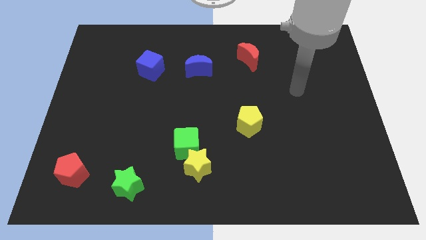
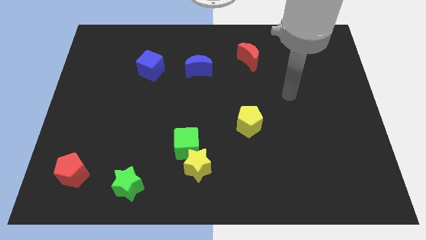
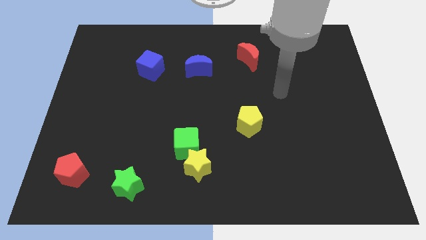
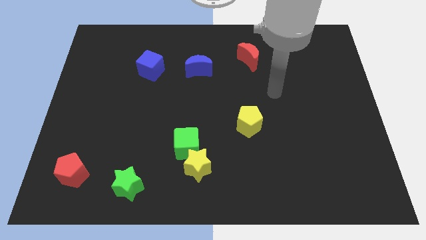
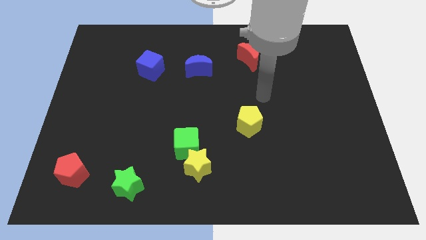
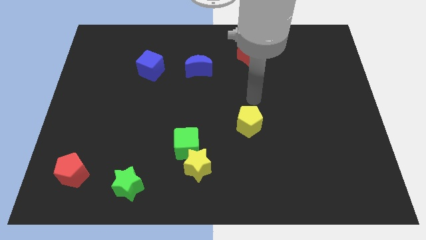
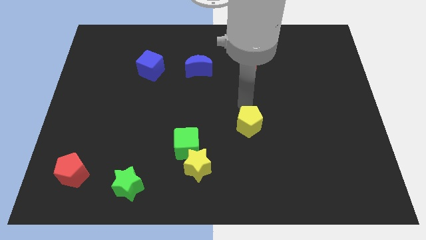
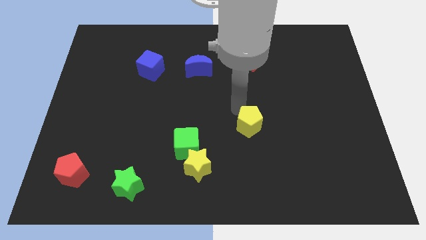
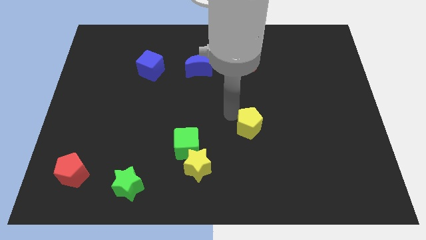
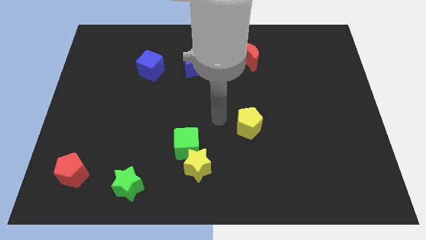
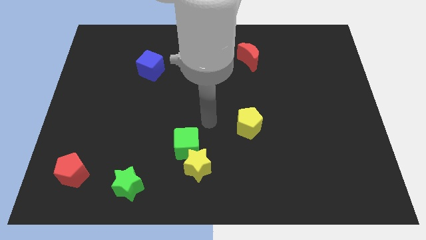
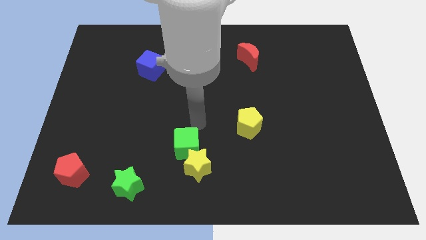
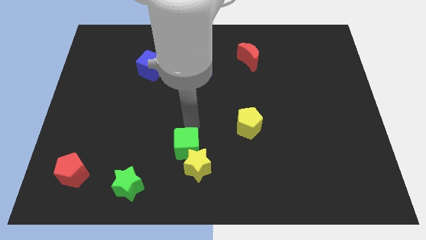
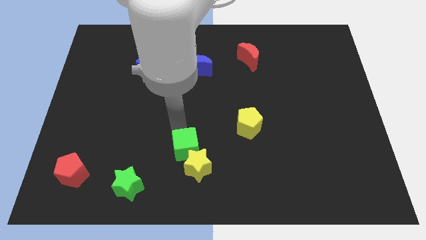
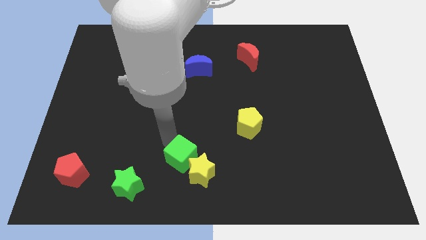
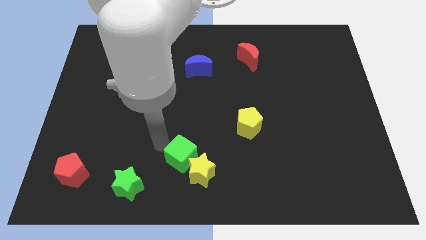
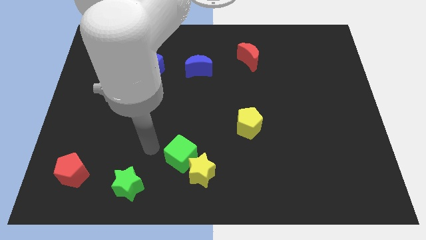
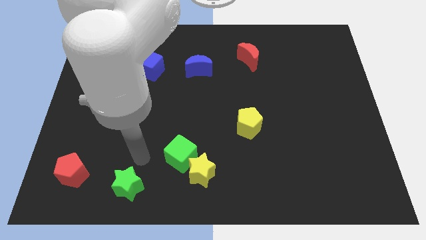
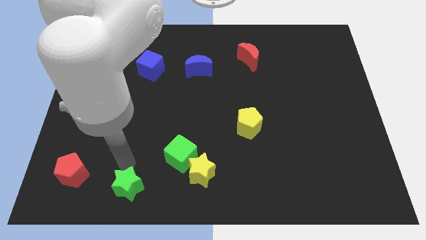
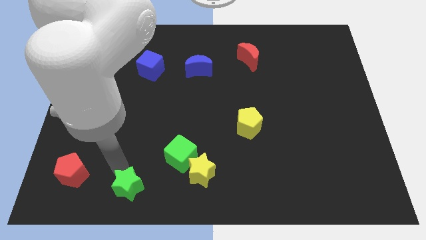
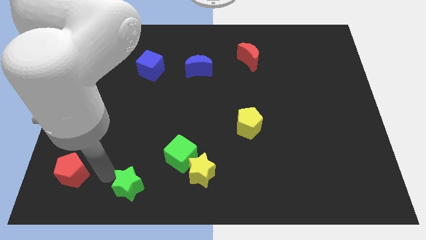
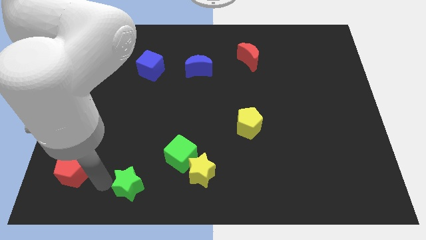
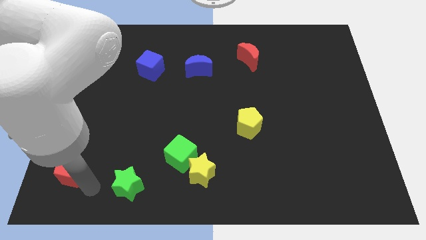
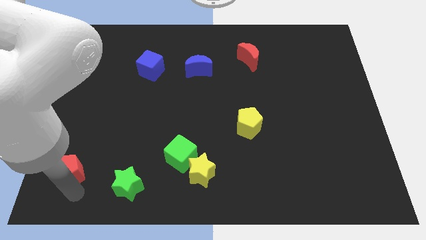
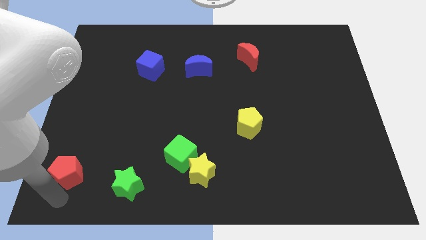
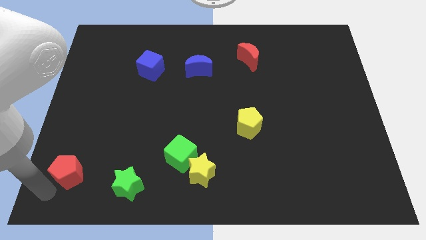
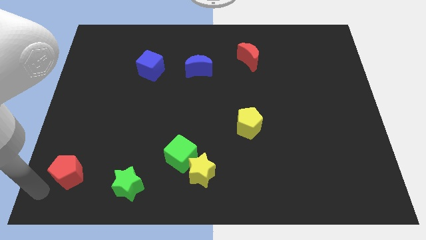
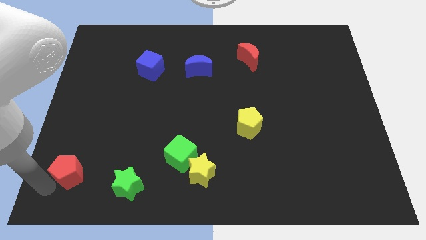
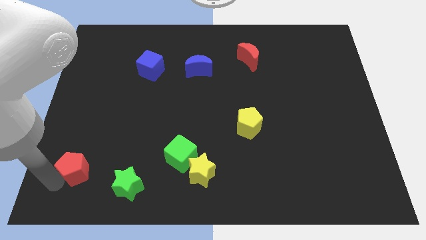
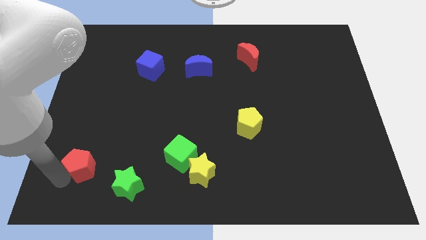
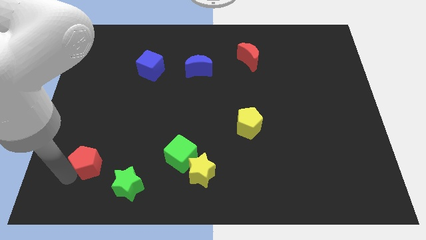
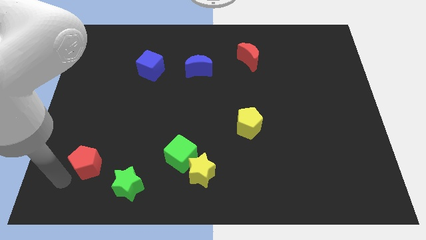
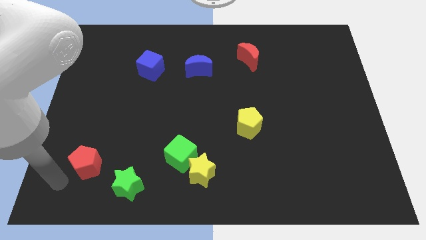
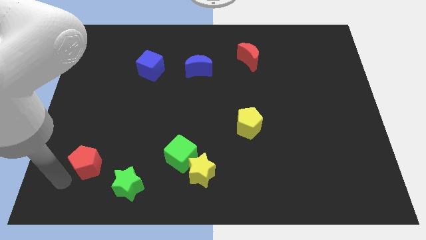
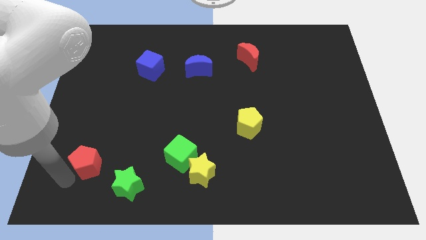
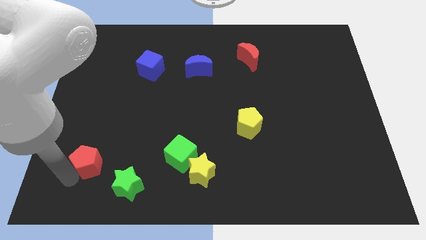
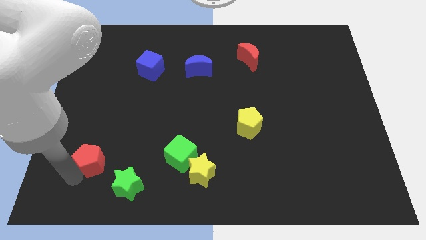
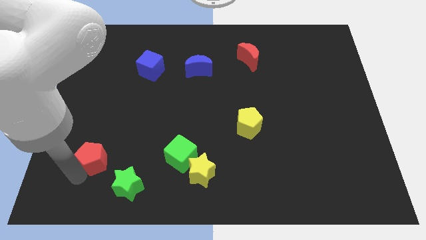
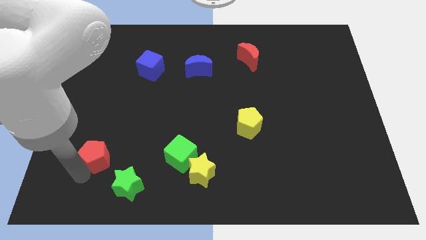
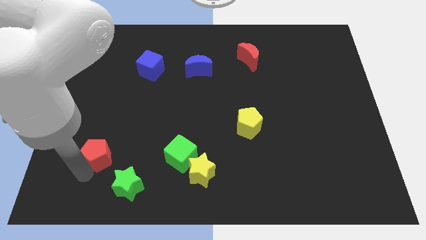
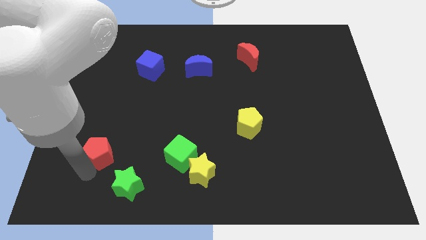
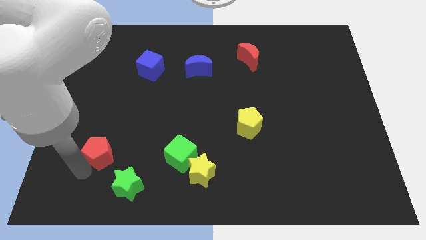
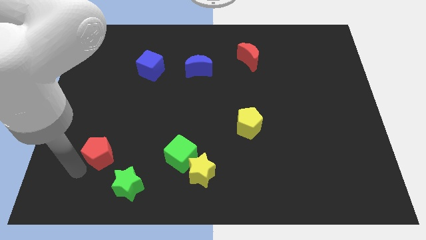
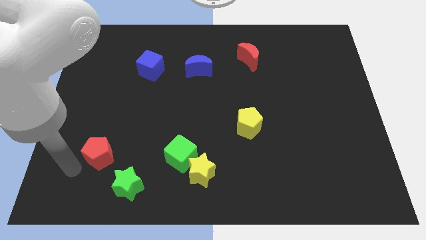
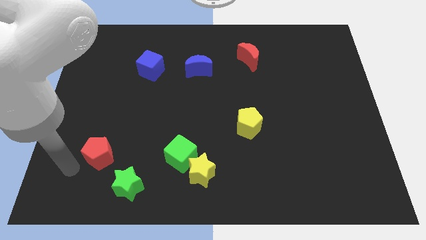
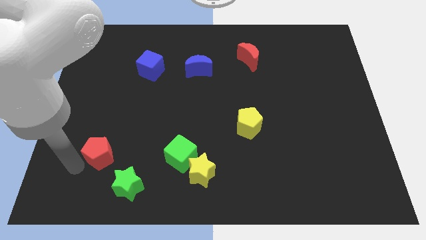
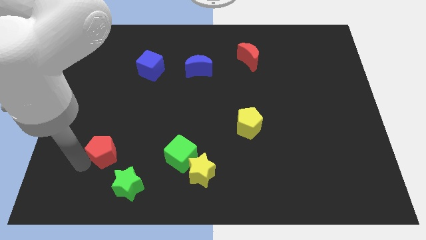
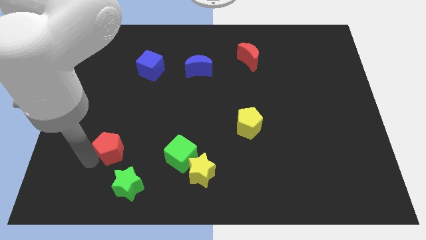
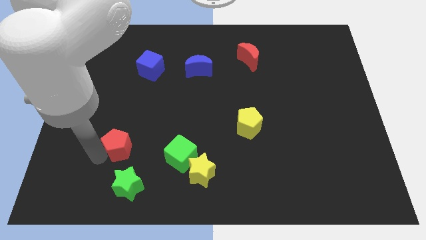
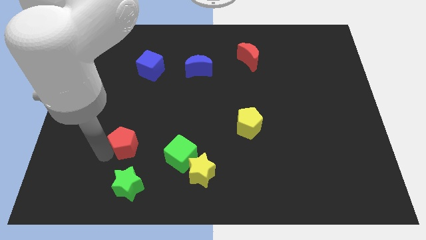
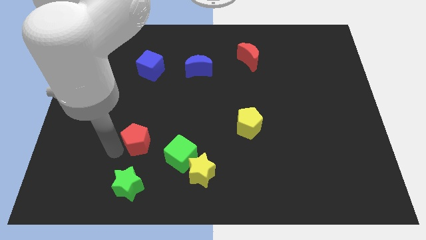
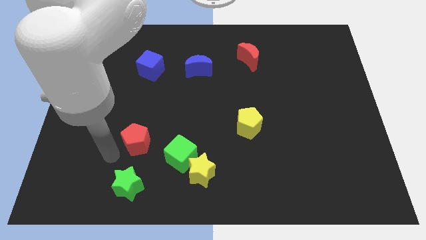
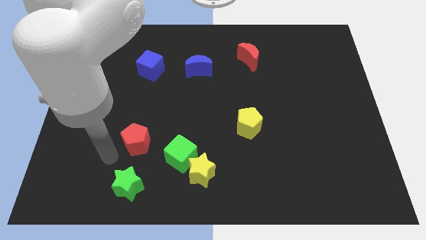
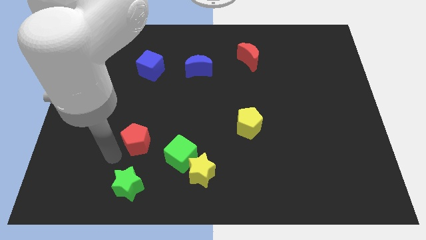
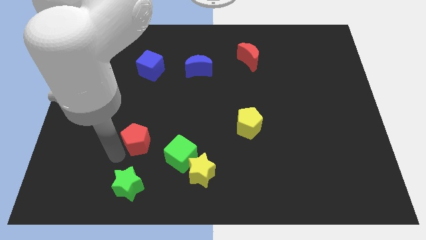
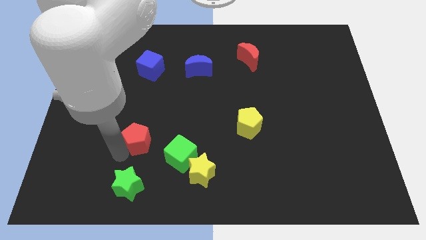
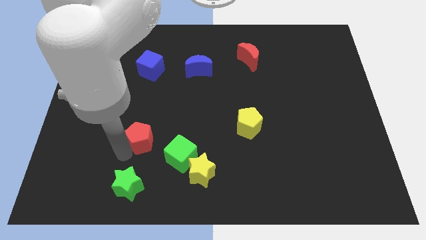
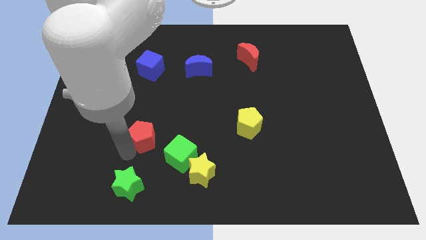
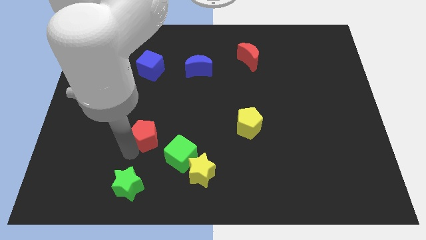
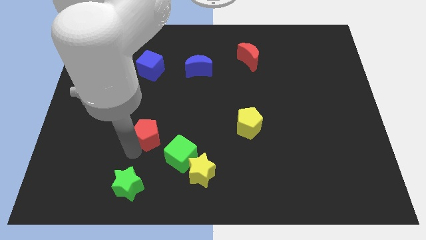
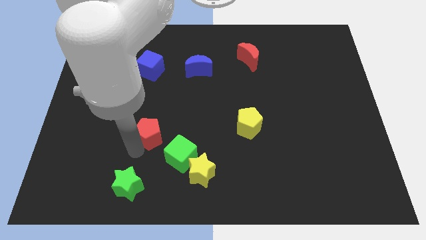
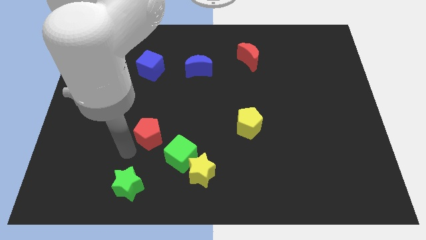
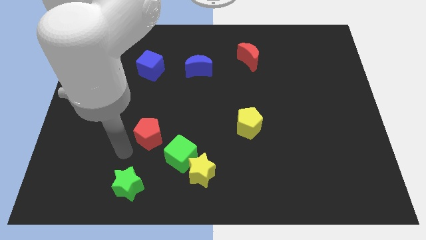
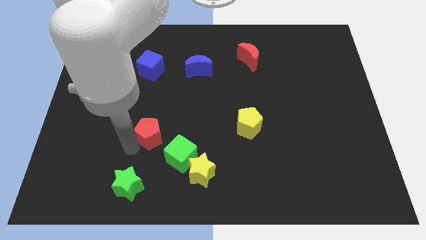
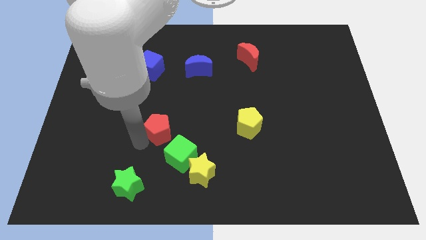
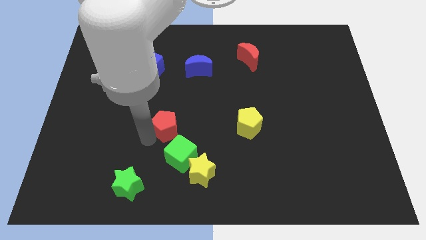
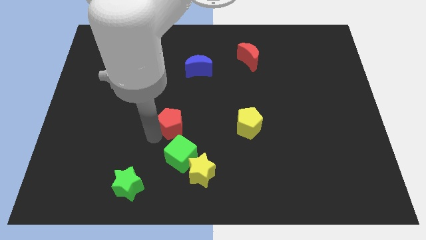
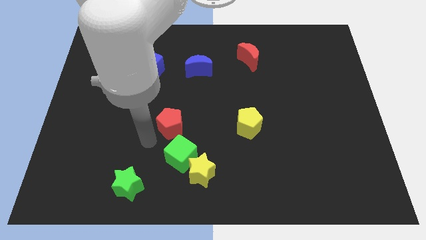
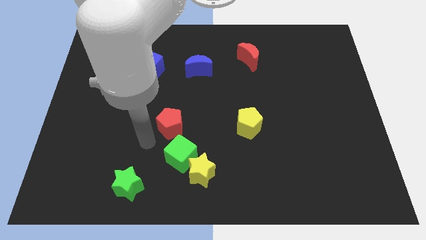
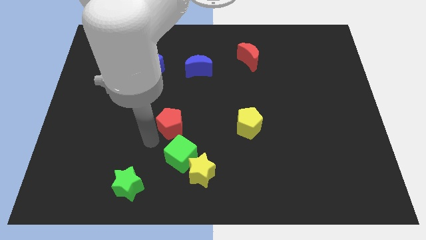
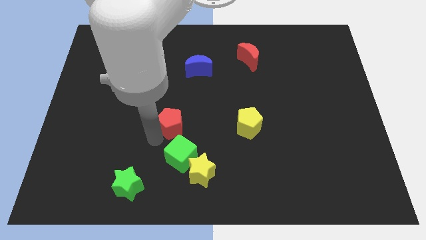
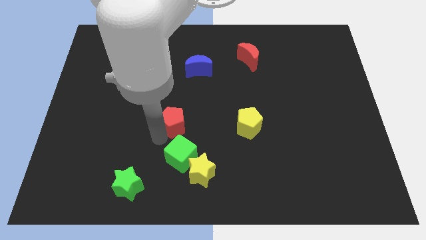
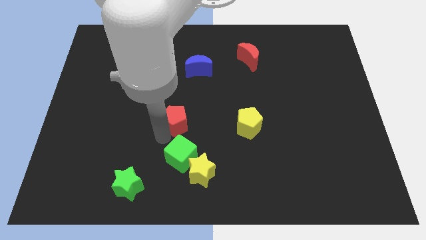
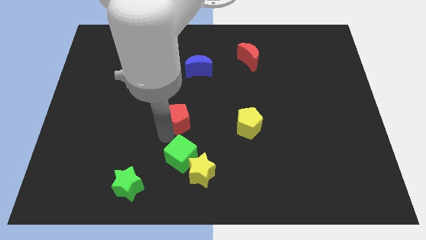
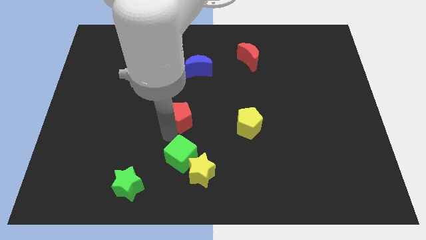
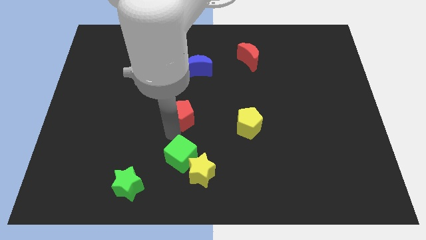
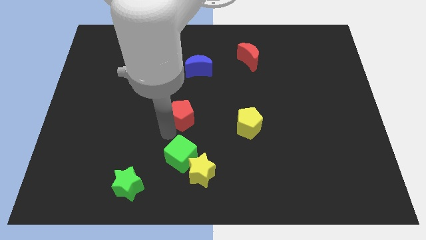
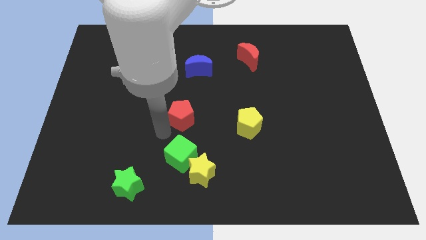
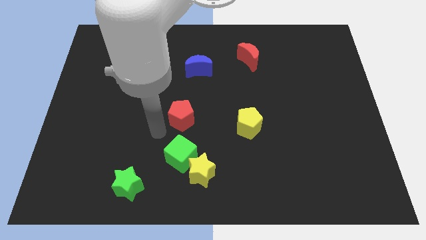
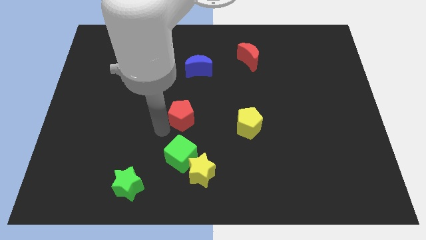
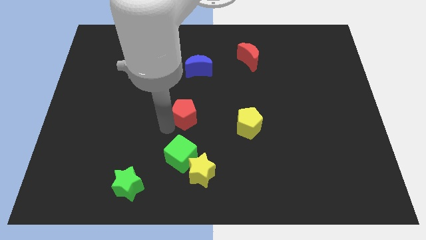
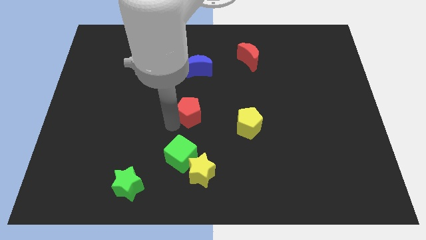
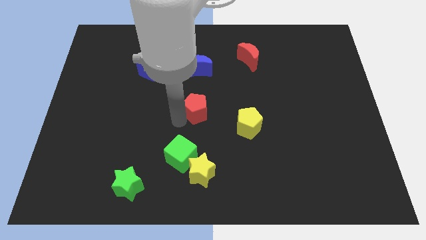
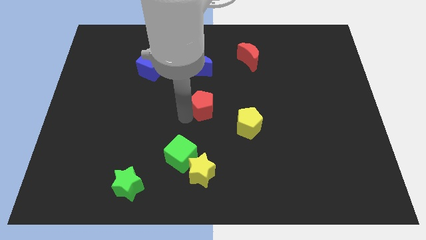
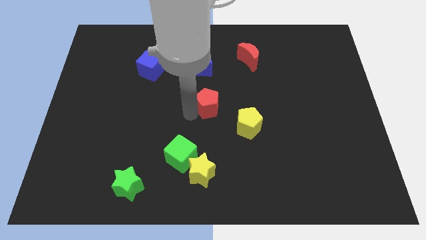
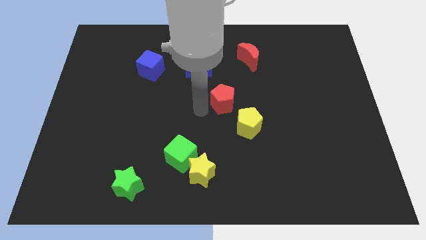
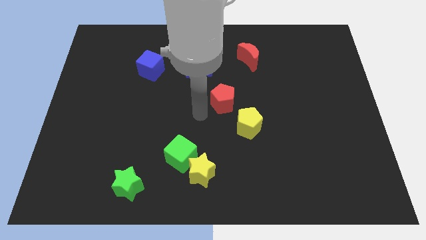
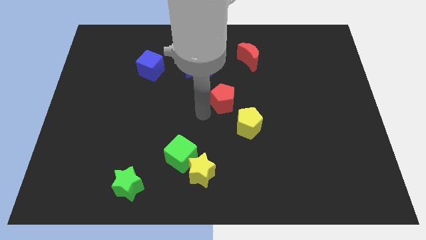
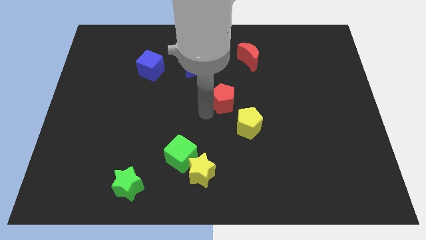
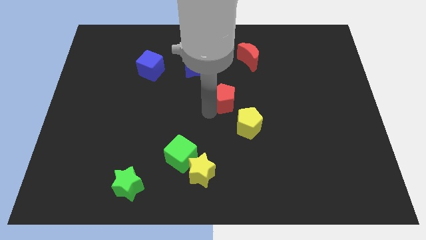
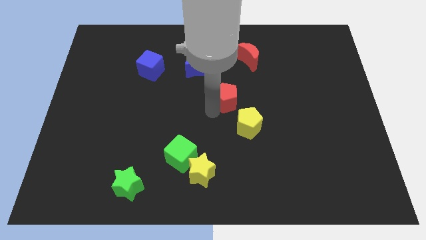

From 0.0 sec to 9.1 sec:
slide the red pentagon to the top side of the yellow pentagon
